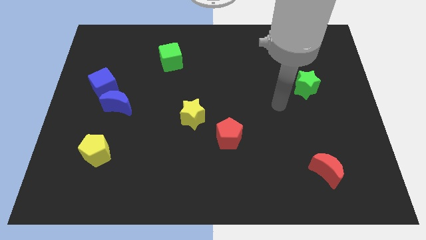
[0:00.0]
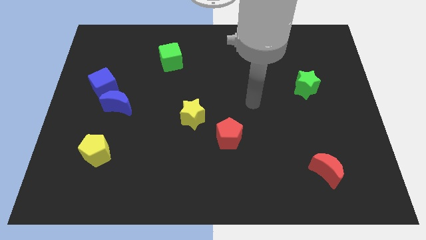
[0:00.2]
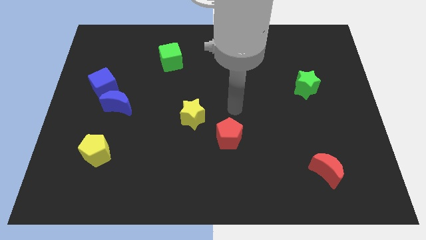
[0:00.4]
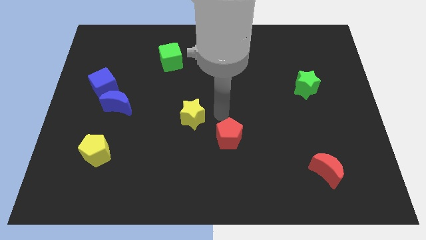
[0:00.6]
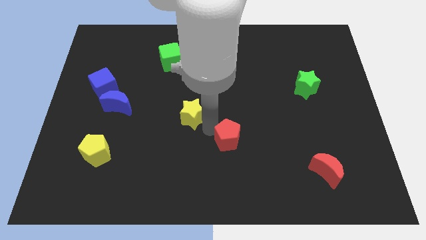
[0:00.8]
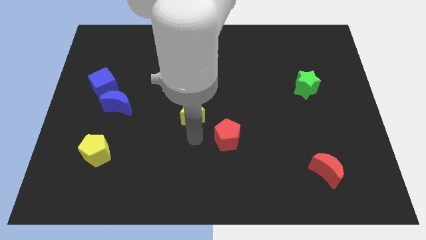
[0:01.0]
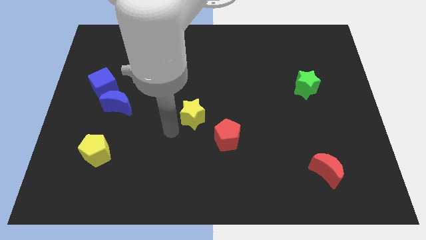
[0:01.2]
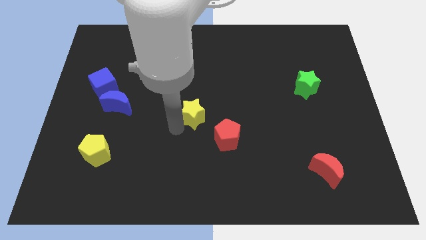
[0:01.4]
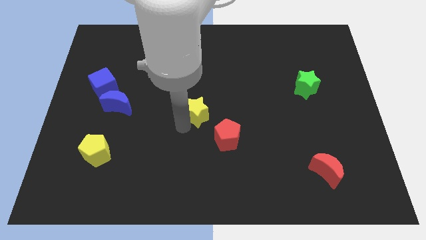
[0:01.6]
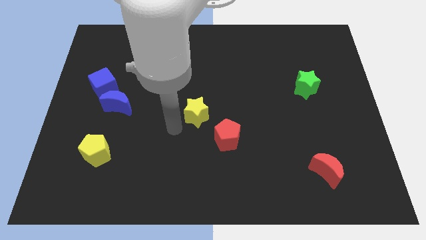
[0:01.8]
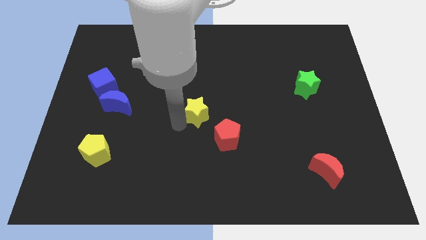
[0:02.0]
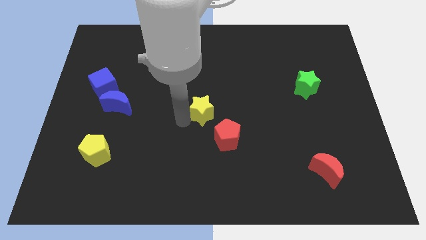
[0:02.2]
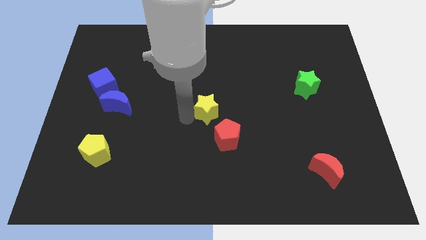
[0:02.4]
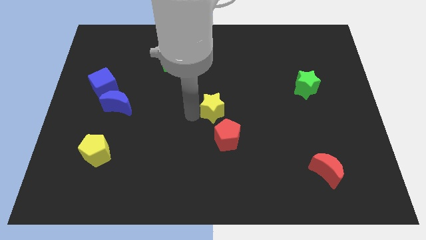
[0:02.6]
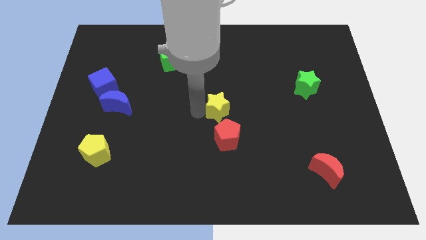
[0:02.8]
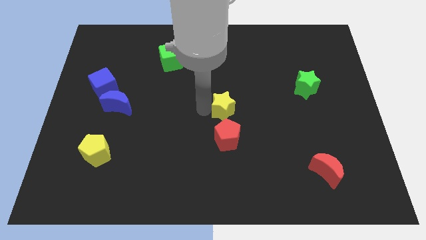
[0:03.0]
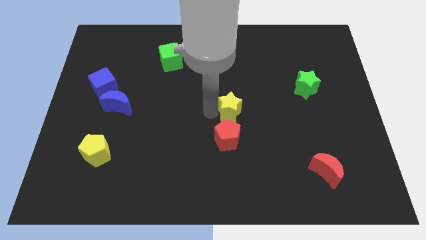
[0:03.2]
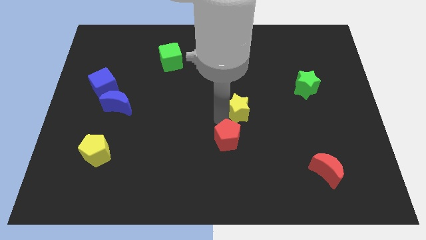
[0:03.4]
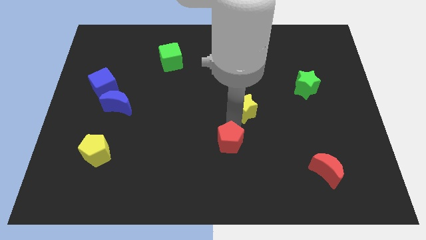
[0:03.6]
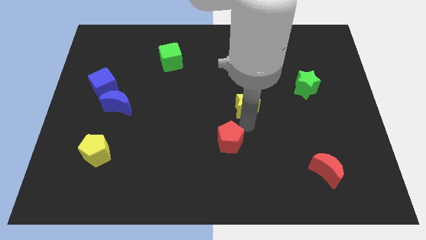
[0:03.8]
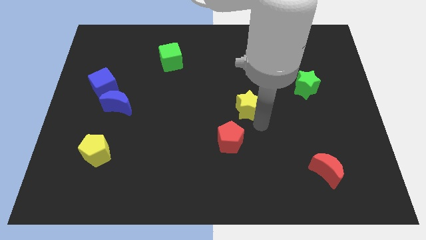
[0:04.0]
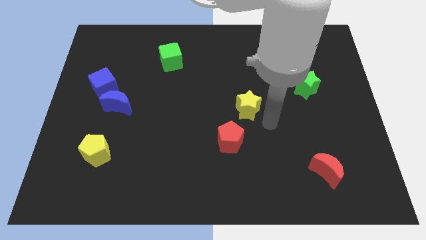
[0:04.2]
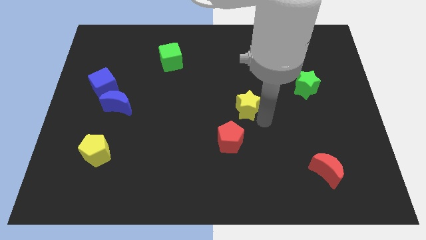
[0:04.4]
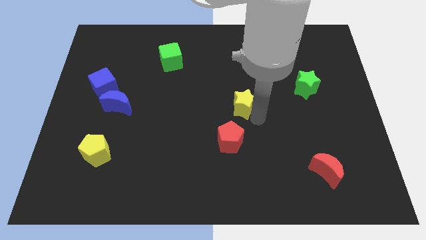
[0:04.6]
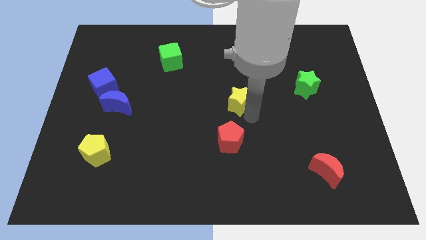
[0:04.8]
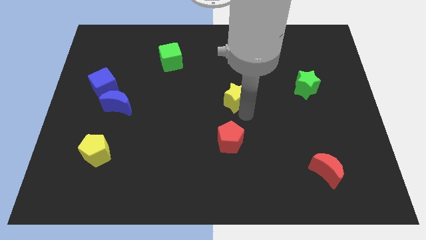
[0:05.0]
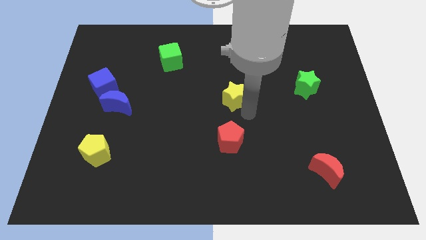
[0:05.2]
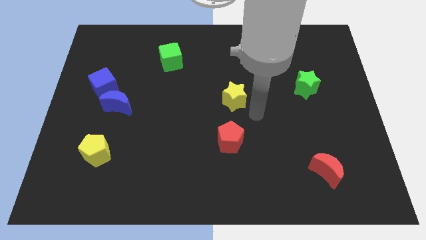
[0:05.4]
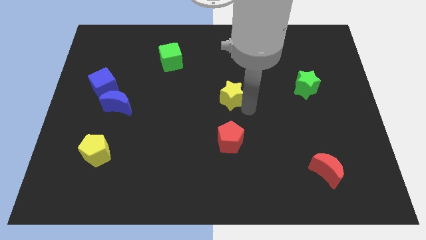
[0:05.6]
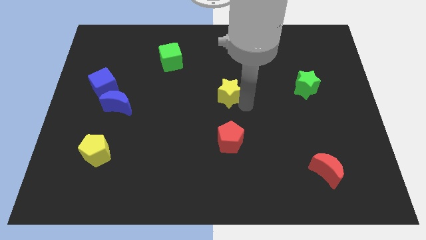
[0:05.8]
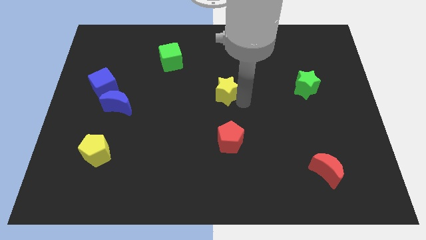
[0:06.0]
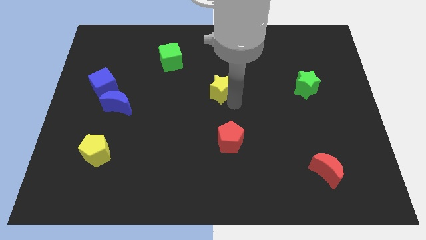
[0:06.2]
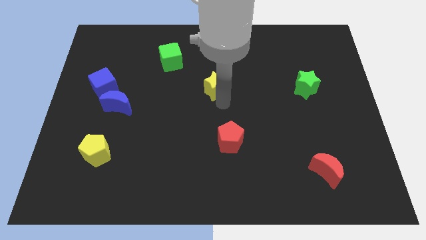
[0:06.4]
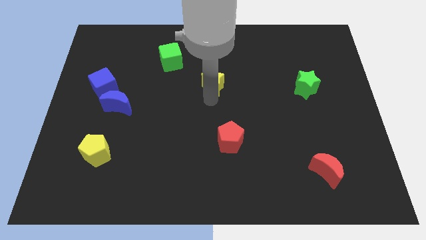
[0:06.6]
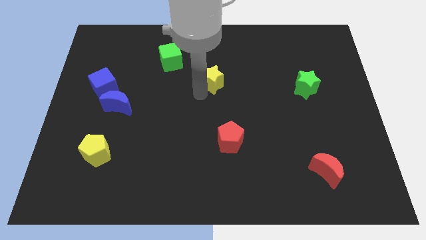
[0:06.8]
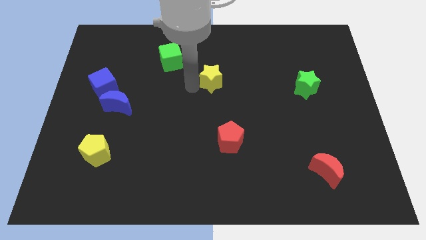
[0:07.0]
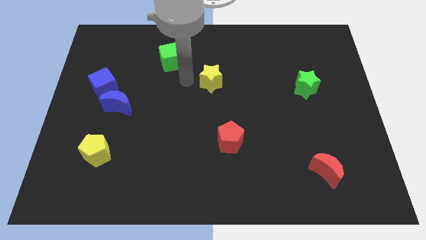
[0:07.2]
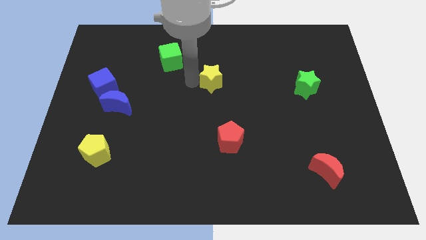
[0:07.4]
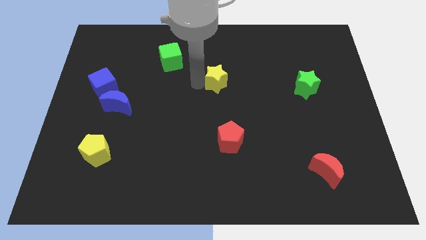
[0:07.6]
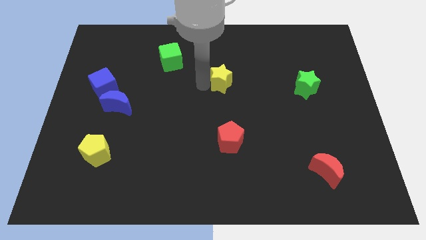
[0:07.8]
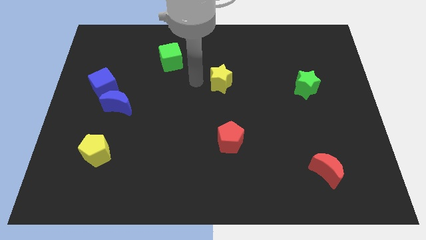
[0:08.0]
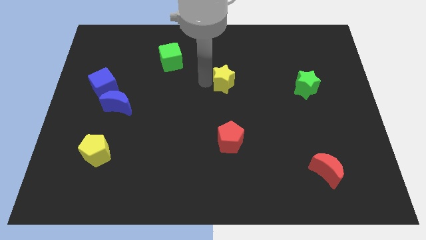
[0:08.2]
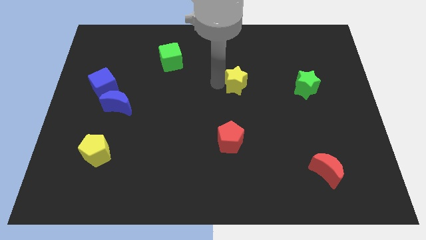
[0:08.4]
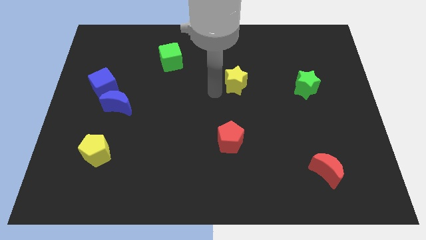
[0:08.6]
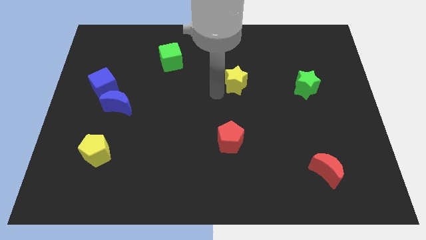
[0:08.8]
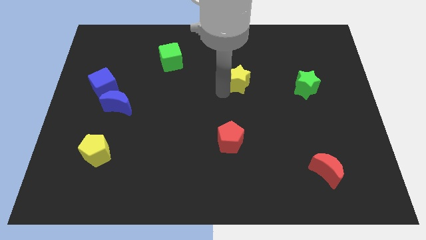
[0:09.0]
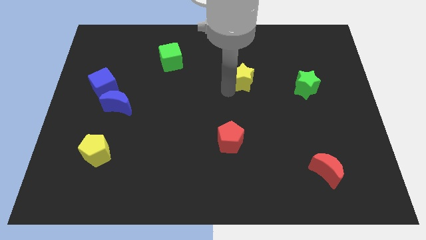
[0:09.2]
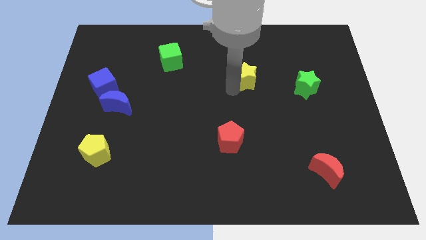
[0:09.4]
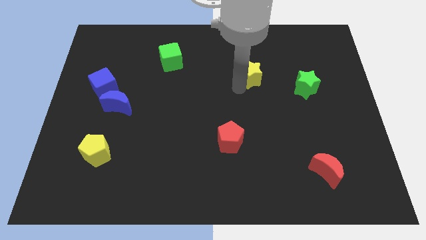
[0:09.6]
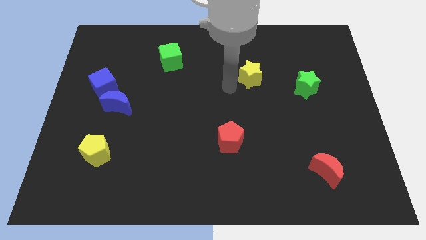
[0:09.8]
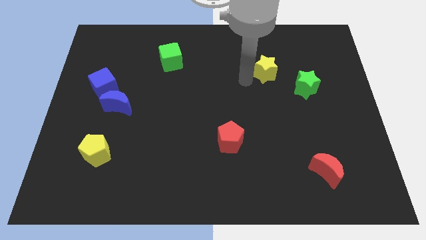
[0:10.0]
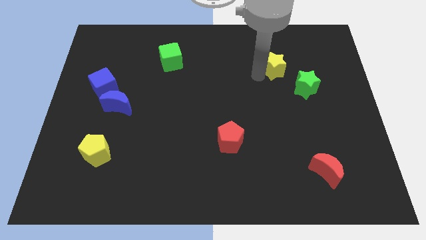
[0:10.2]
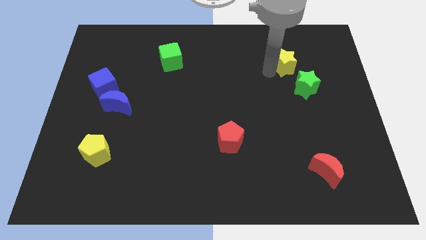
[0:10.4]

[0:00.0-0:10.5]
slide the yellow star to the top of the green star

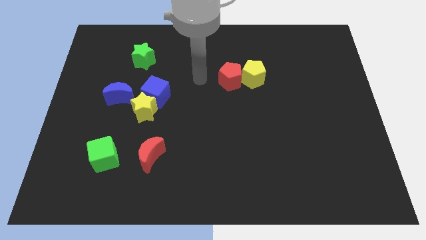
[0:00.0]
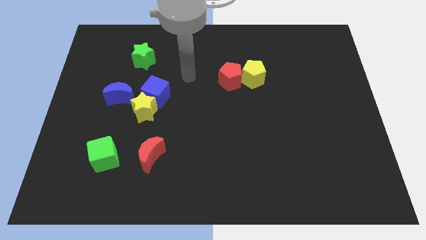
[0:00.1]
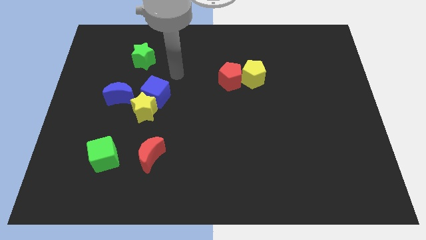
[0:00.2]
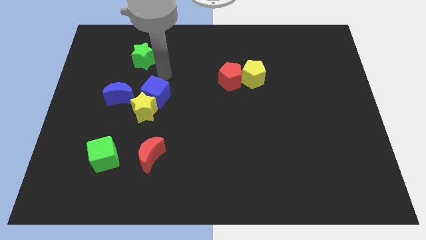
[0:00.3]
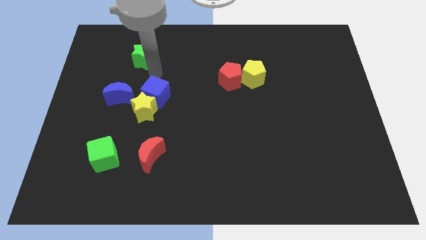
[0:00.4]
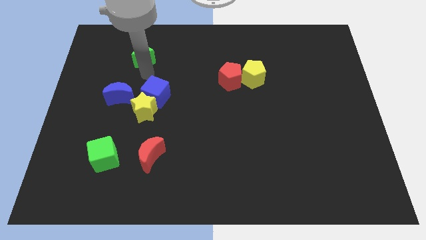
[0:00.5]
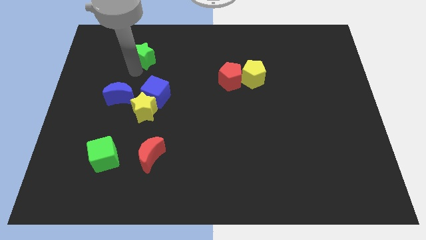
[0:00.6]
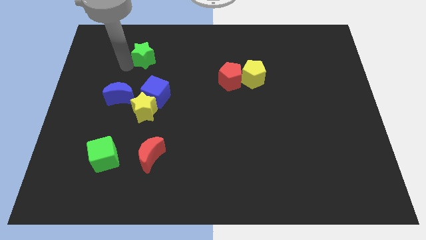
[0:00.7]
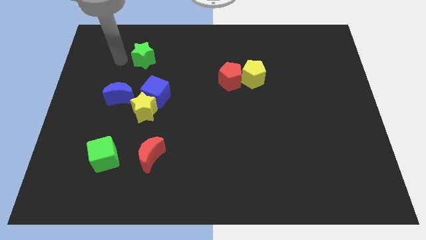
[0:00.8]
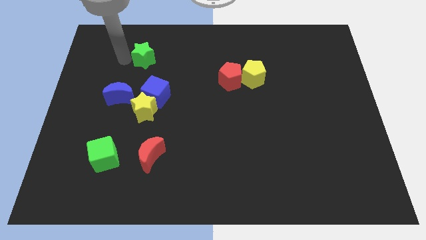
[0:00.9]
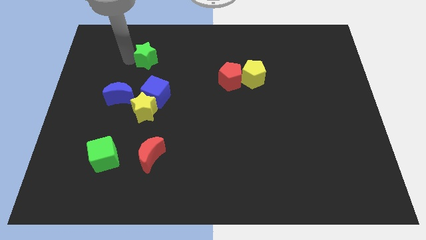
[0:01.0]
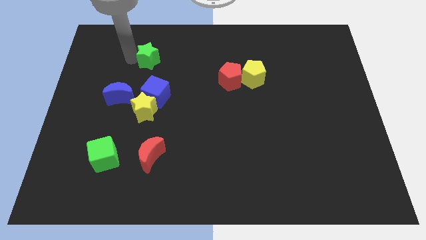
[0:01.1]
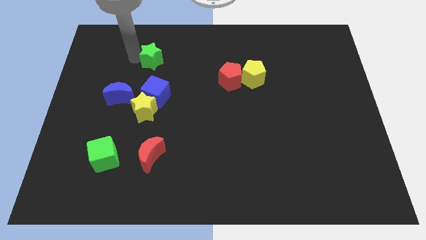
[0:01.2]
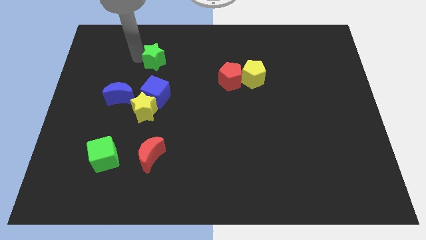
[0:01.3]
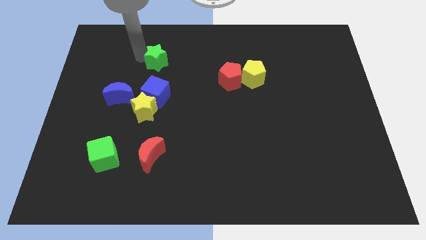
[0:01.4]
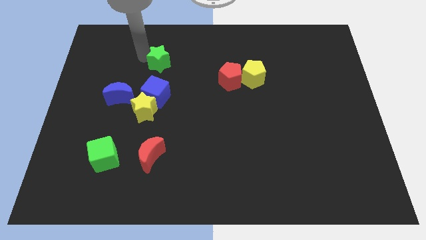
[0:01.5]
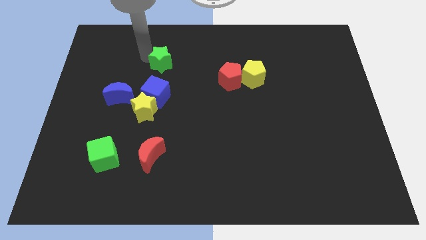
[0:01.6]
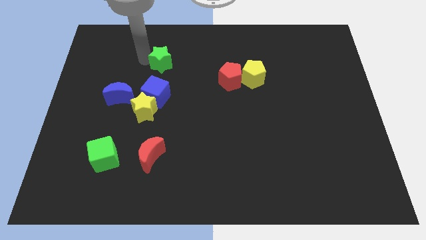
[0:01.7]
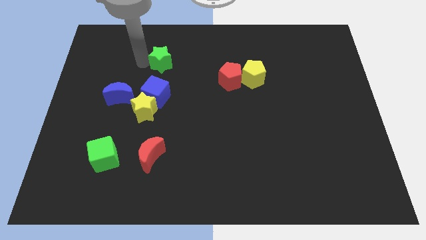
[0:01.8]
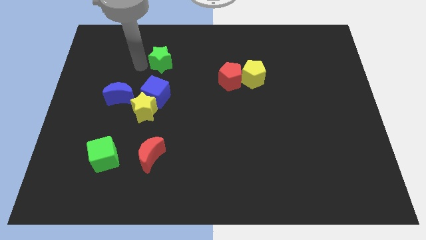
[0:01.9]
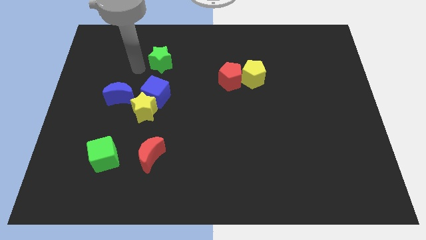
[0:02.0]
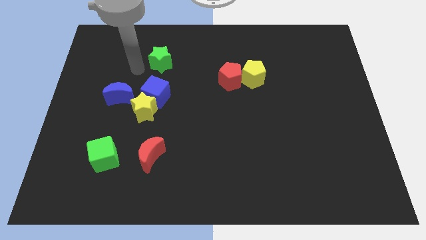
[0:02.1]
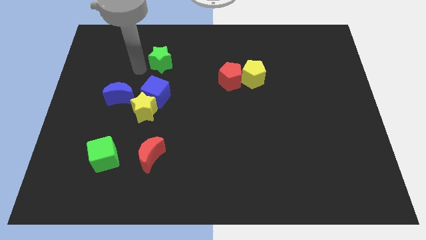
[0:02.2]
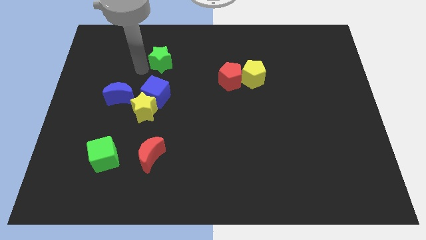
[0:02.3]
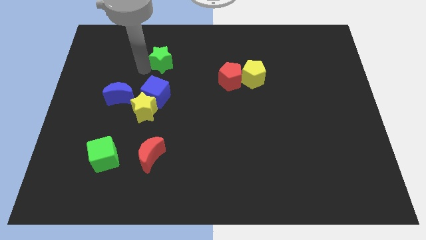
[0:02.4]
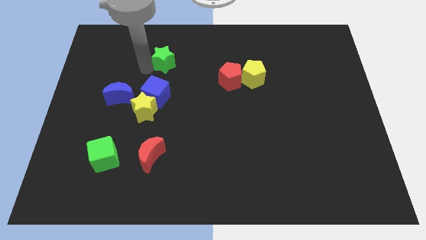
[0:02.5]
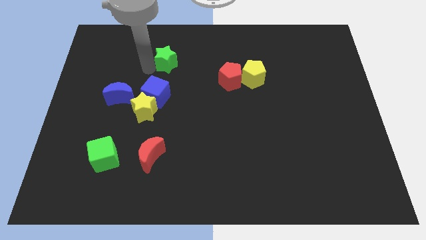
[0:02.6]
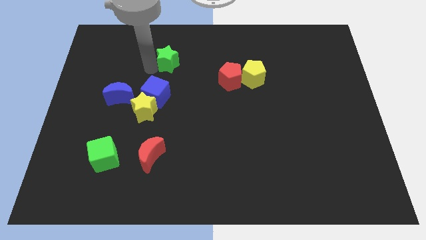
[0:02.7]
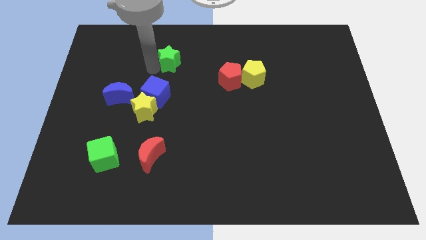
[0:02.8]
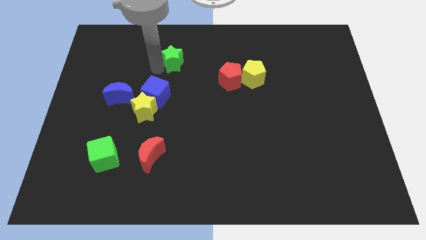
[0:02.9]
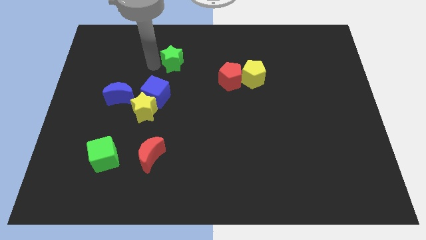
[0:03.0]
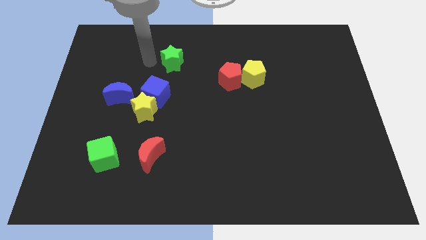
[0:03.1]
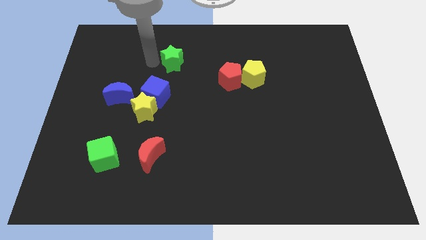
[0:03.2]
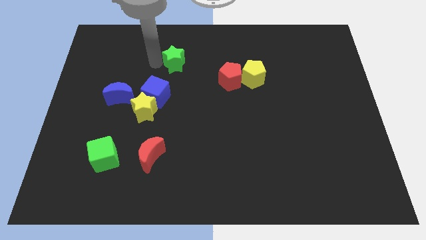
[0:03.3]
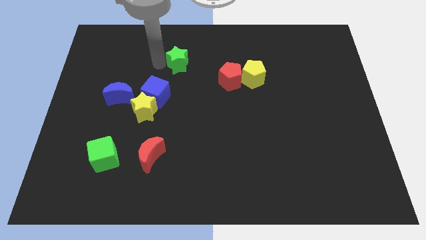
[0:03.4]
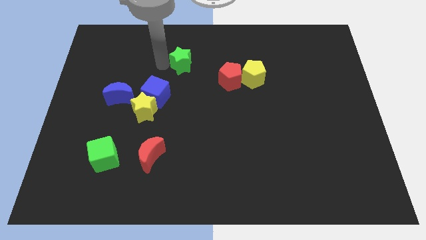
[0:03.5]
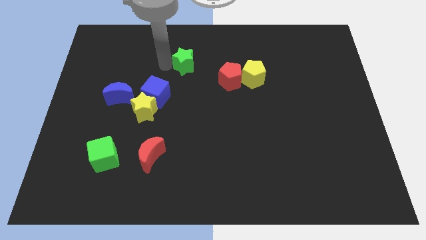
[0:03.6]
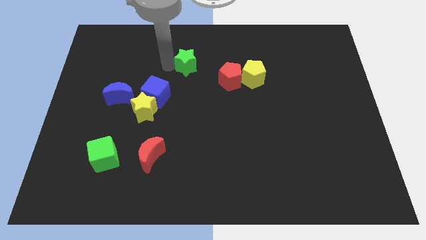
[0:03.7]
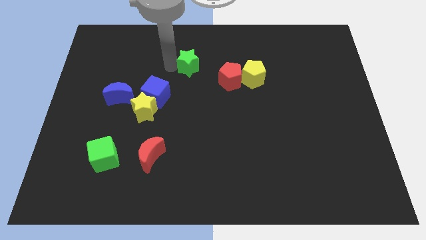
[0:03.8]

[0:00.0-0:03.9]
move the green star diagonally up and to the left of the red pentagon
